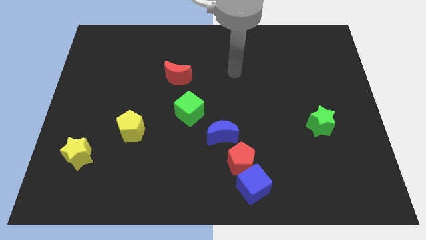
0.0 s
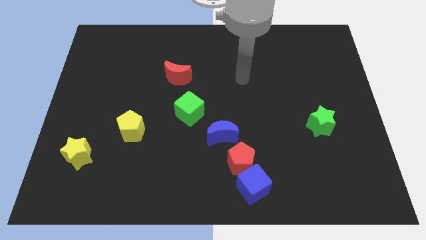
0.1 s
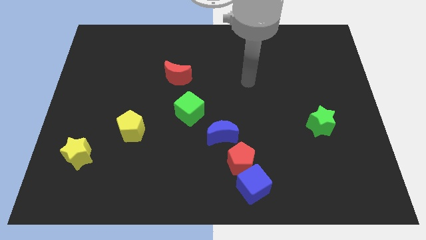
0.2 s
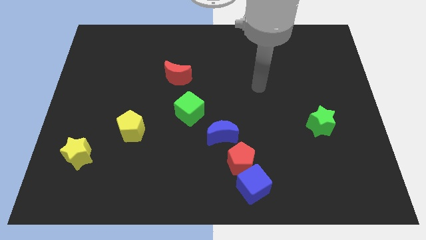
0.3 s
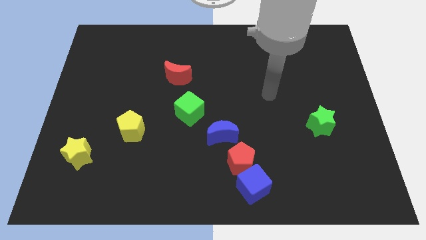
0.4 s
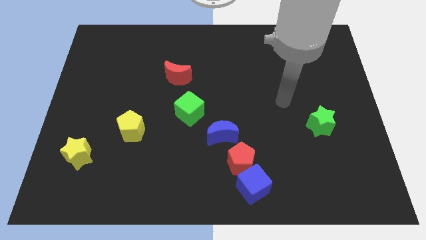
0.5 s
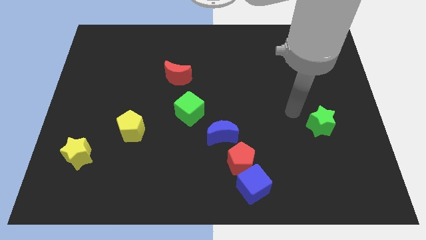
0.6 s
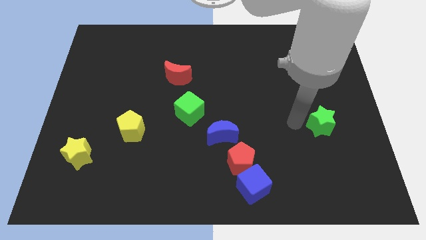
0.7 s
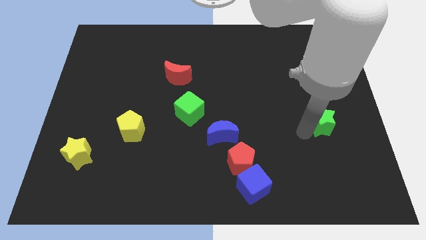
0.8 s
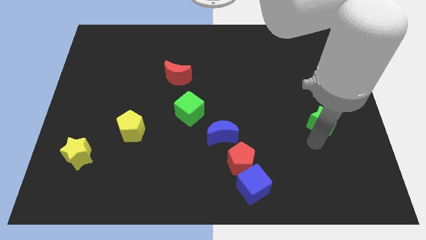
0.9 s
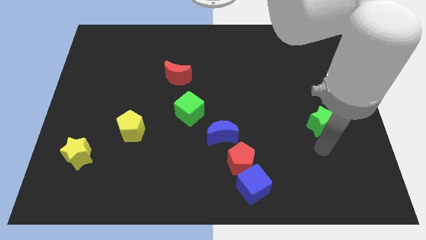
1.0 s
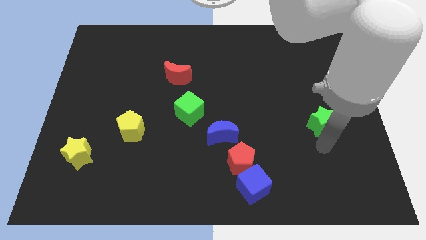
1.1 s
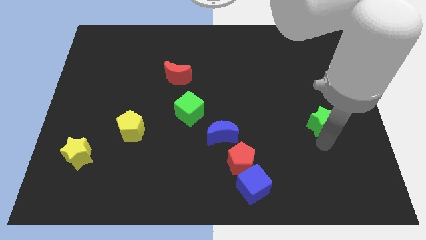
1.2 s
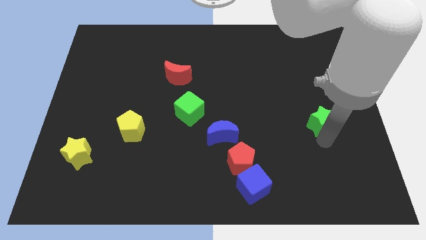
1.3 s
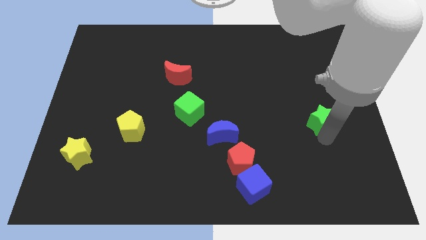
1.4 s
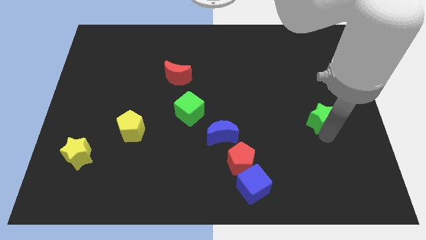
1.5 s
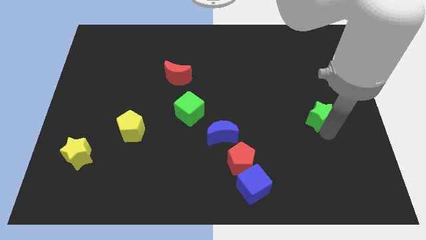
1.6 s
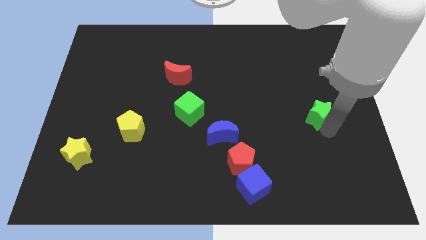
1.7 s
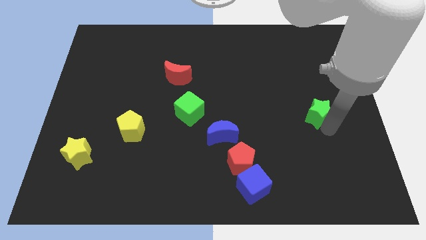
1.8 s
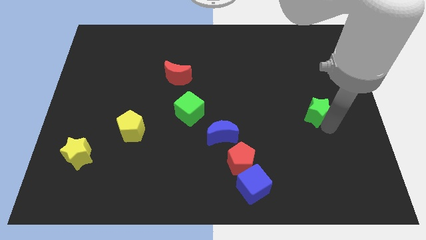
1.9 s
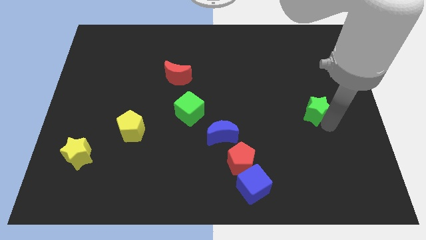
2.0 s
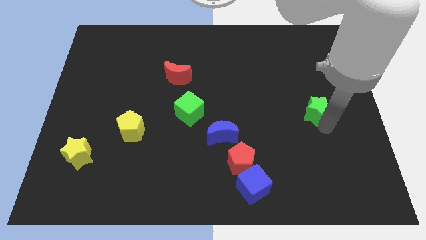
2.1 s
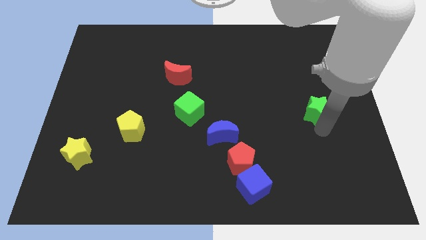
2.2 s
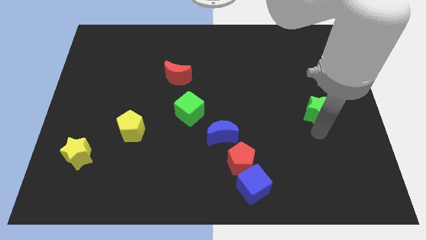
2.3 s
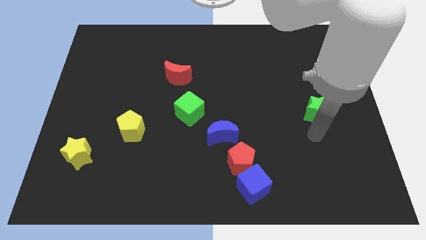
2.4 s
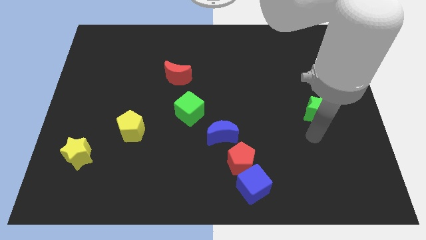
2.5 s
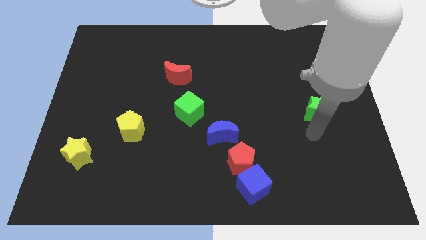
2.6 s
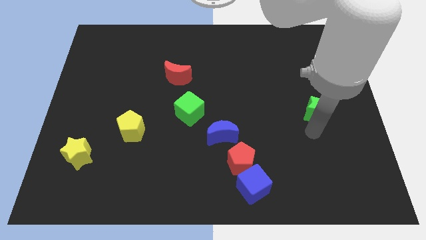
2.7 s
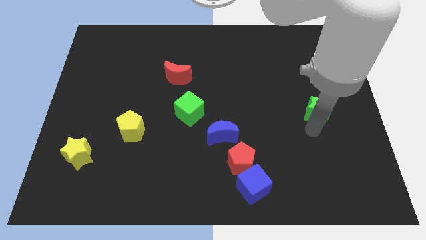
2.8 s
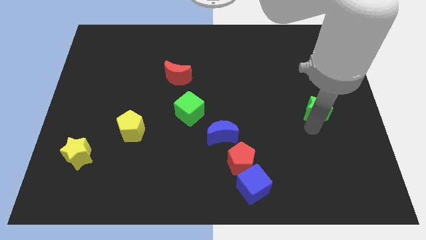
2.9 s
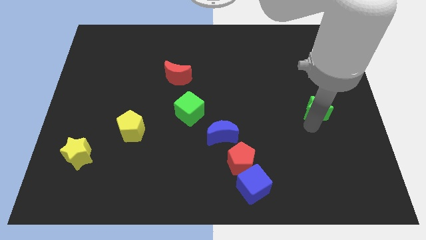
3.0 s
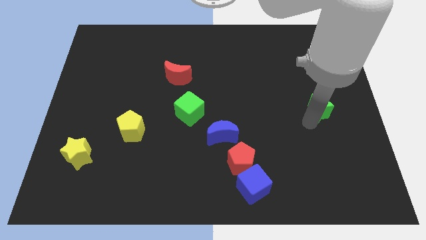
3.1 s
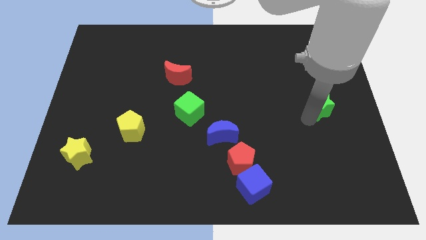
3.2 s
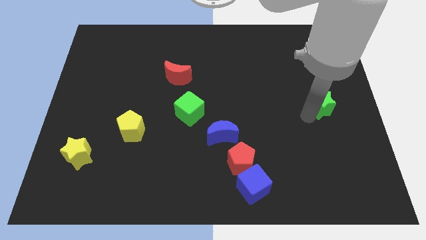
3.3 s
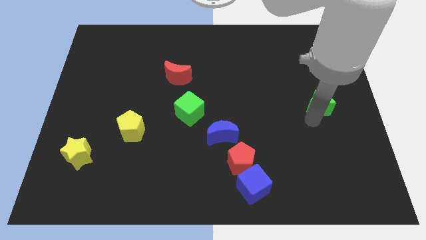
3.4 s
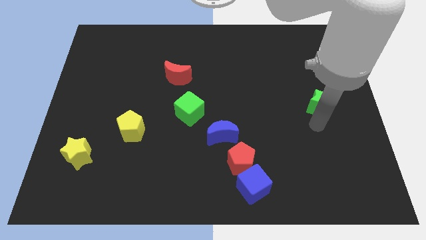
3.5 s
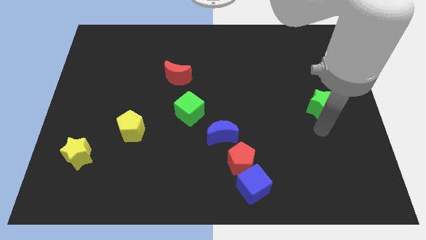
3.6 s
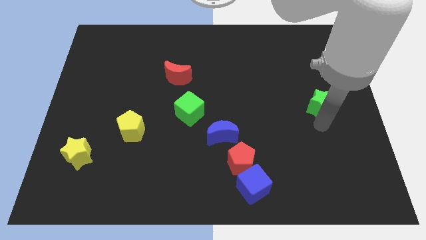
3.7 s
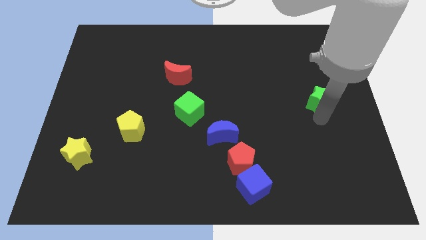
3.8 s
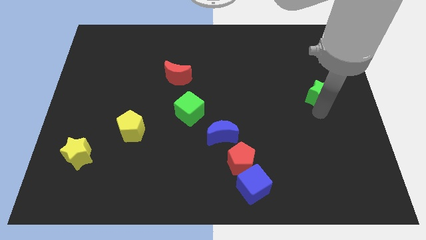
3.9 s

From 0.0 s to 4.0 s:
slightly move the green star up

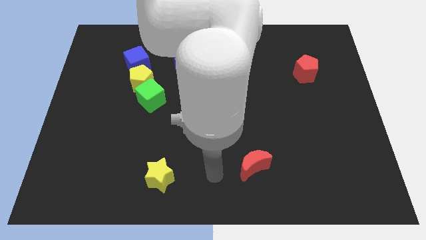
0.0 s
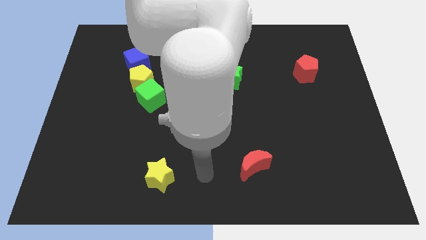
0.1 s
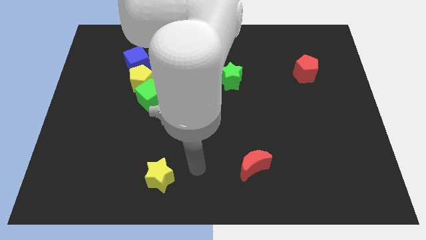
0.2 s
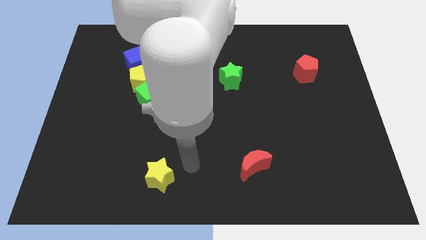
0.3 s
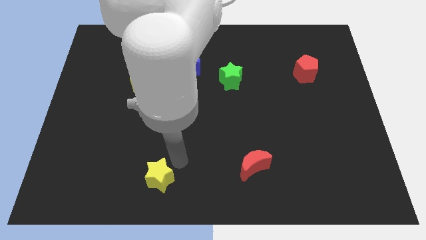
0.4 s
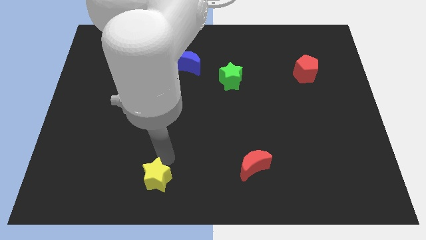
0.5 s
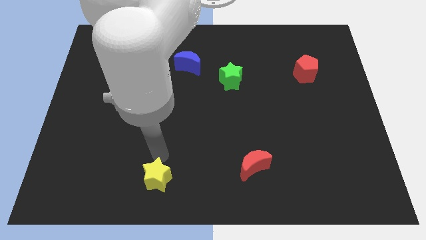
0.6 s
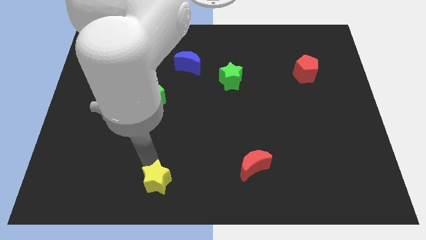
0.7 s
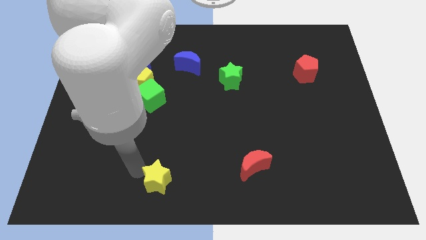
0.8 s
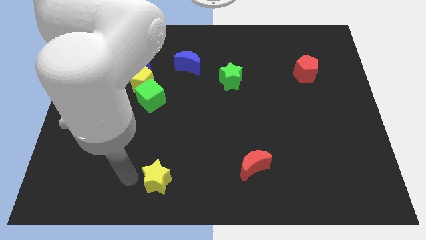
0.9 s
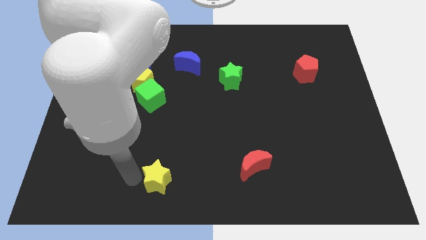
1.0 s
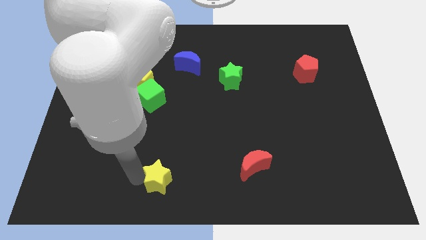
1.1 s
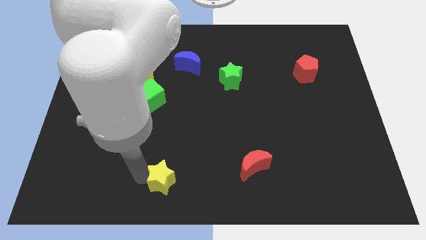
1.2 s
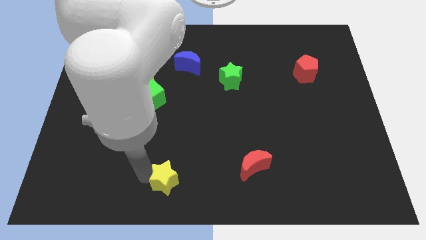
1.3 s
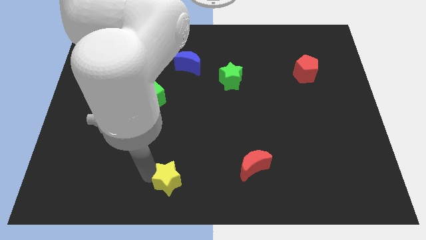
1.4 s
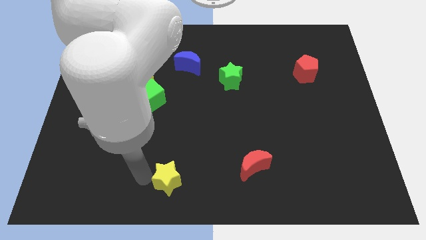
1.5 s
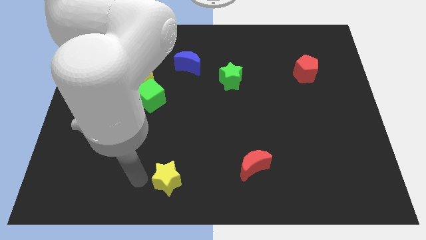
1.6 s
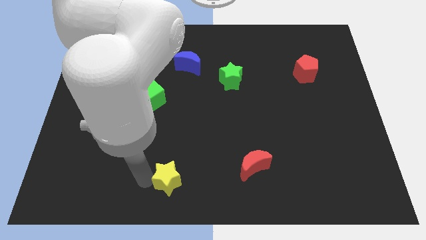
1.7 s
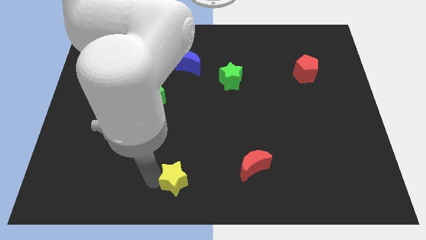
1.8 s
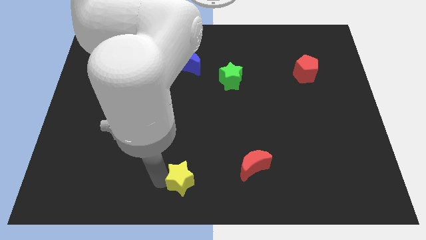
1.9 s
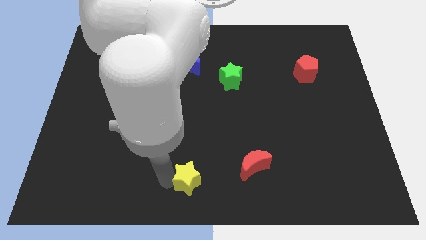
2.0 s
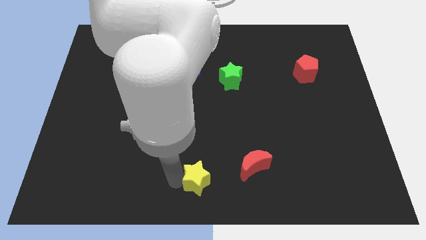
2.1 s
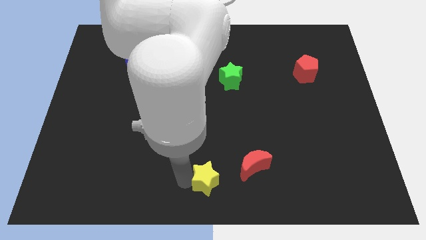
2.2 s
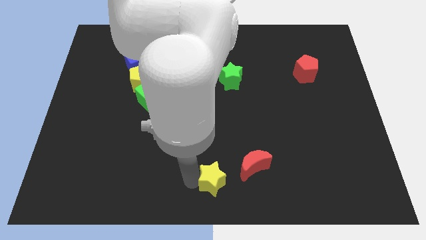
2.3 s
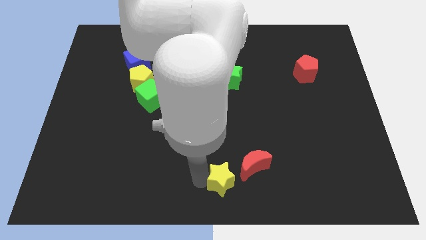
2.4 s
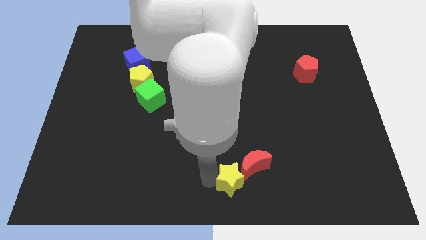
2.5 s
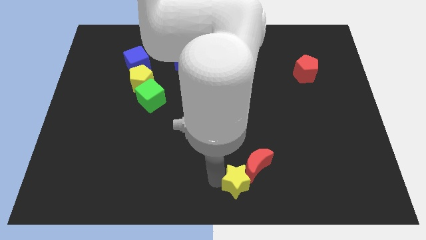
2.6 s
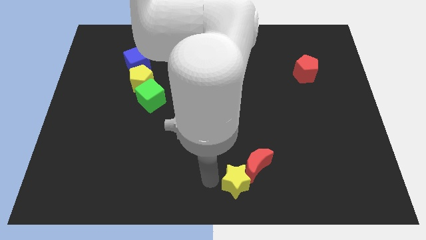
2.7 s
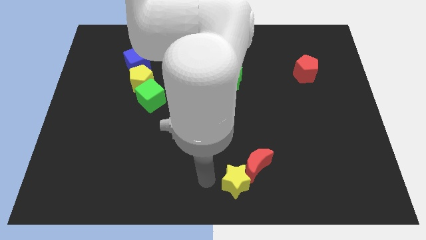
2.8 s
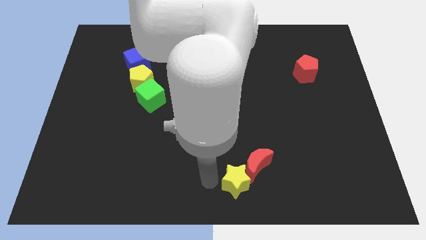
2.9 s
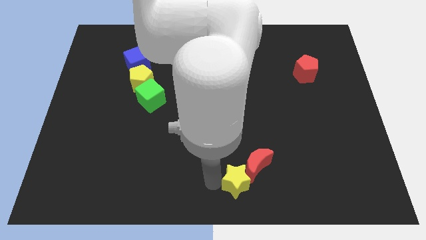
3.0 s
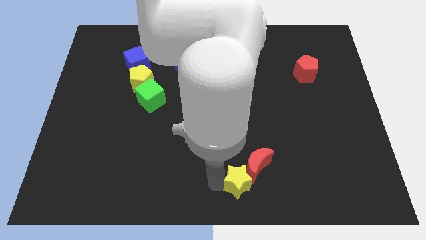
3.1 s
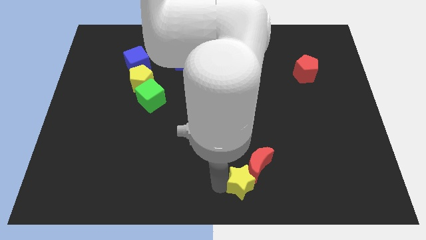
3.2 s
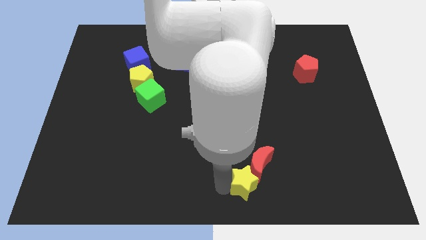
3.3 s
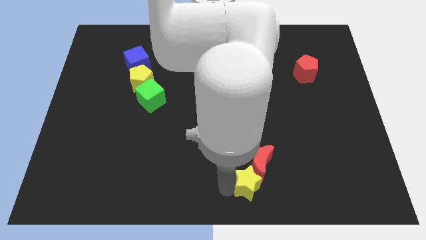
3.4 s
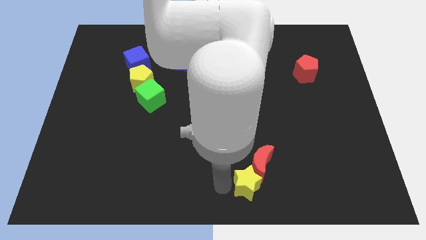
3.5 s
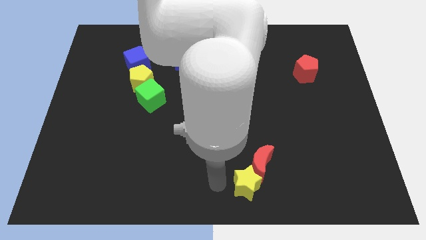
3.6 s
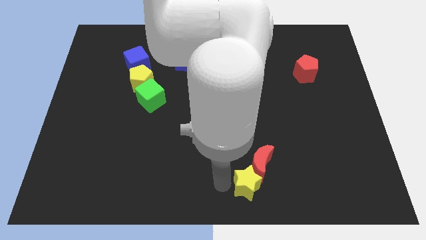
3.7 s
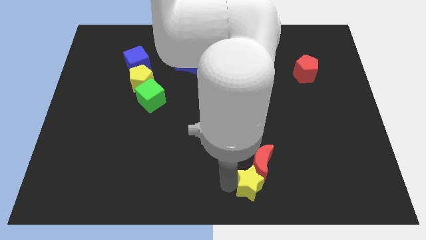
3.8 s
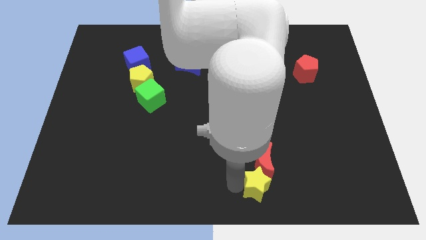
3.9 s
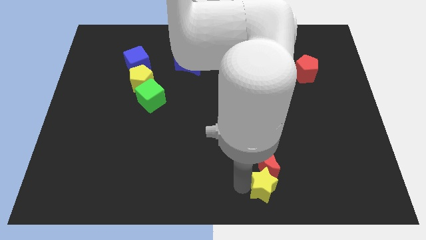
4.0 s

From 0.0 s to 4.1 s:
slide the yellow star right

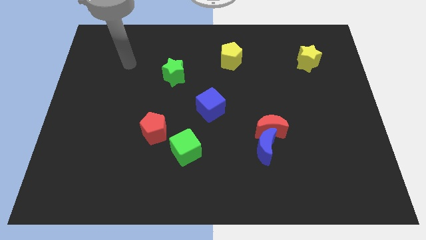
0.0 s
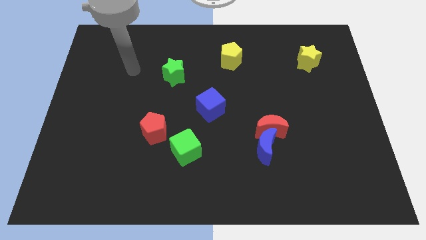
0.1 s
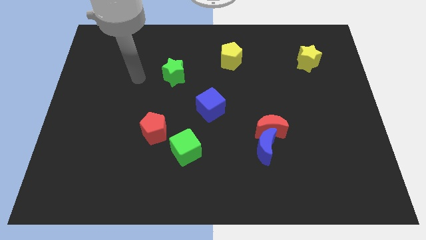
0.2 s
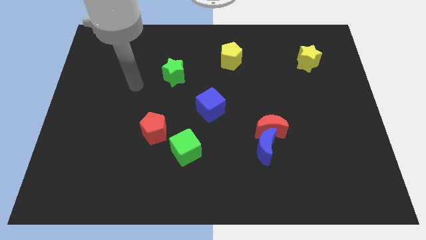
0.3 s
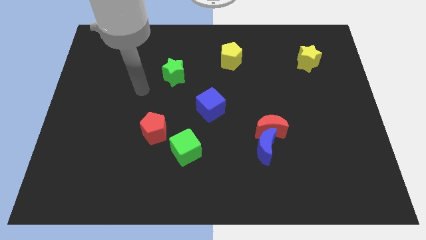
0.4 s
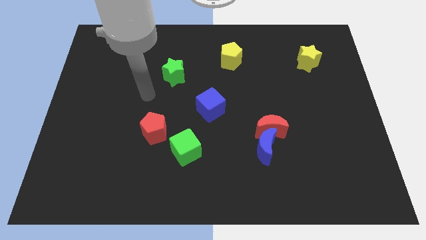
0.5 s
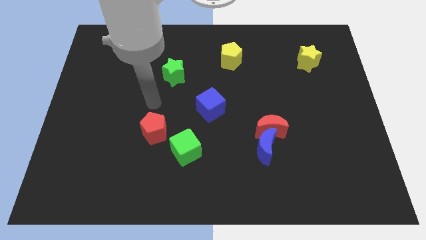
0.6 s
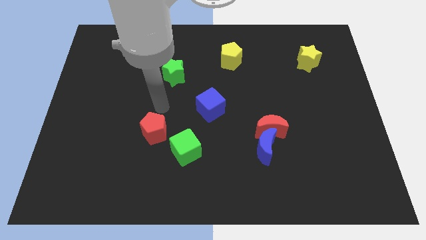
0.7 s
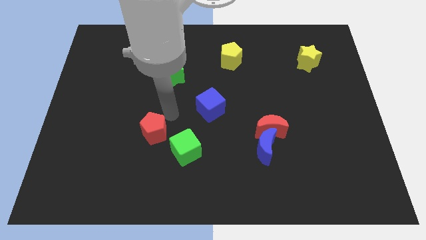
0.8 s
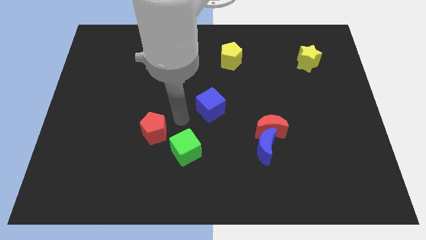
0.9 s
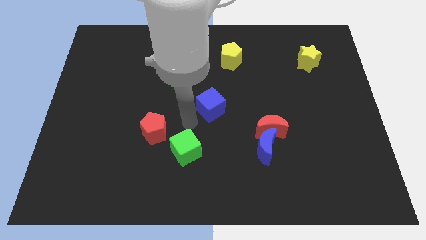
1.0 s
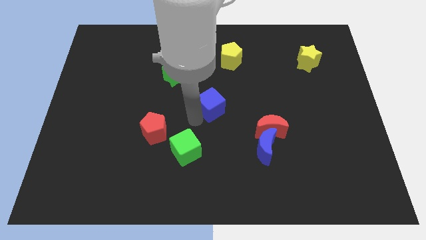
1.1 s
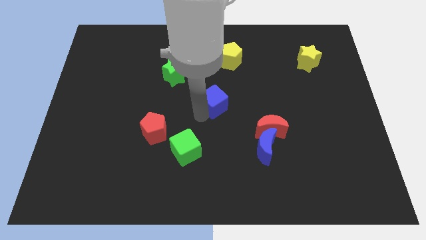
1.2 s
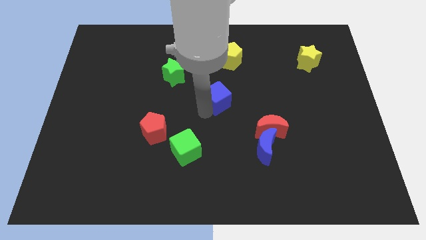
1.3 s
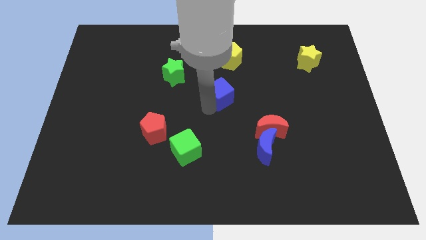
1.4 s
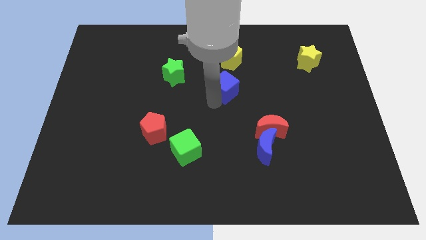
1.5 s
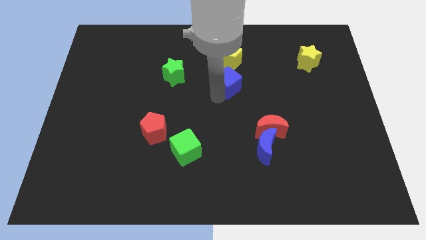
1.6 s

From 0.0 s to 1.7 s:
push the blue cube a little bit up and then right
